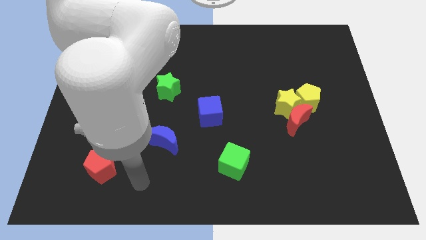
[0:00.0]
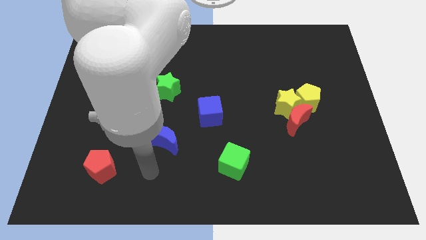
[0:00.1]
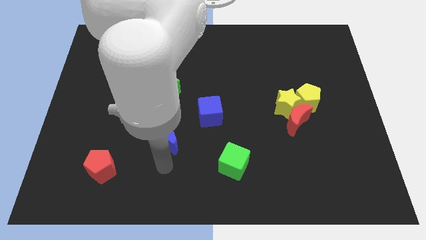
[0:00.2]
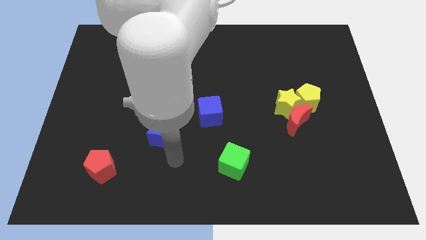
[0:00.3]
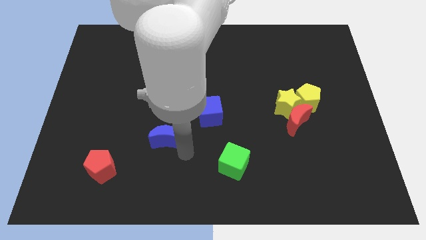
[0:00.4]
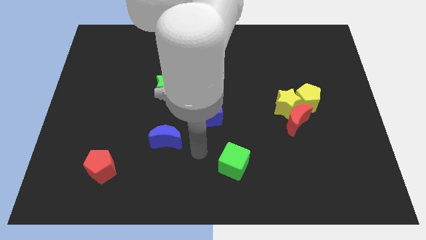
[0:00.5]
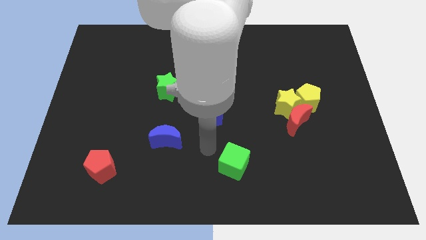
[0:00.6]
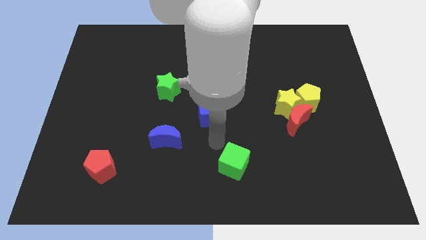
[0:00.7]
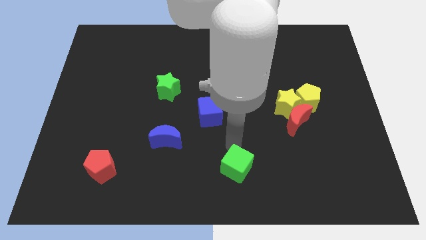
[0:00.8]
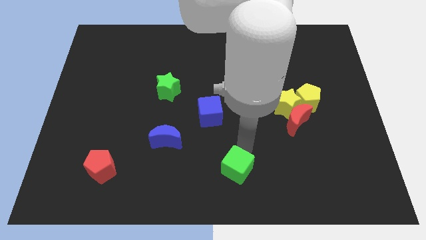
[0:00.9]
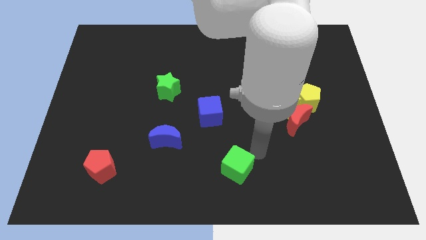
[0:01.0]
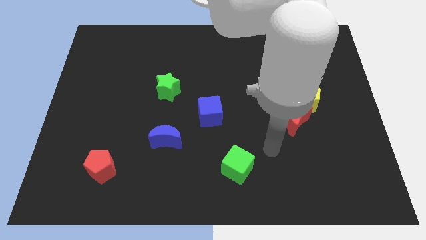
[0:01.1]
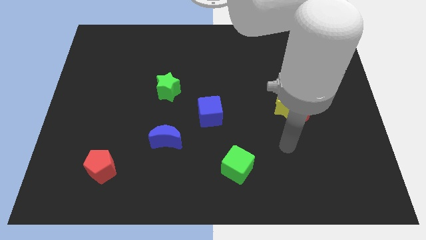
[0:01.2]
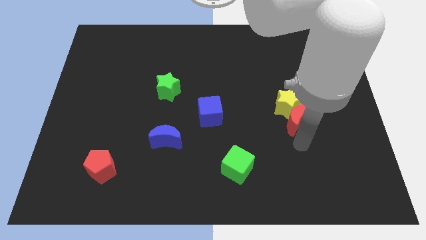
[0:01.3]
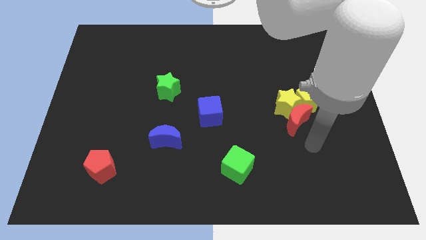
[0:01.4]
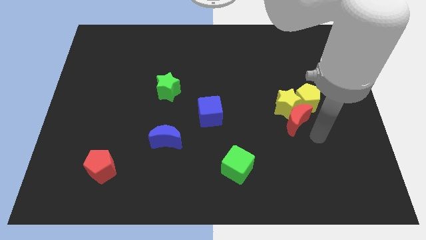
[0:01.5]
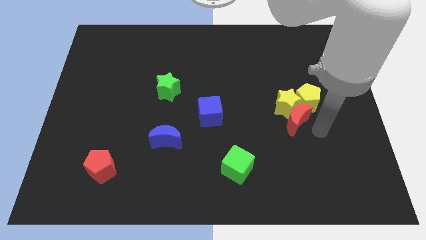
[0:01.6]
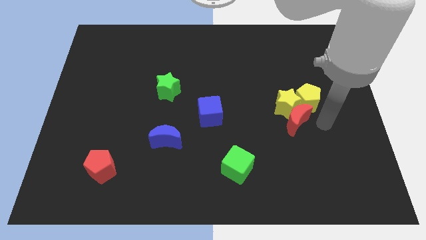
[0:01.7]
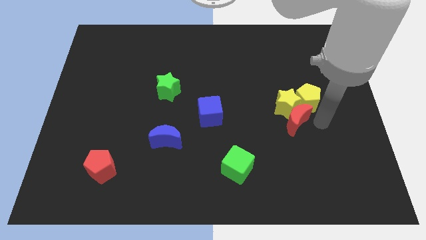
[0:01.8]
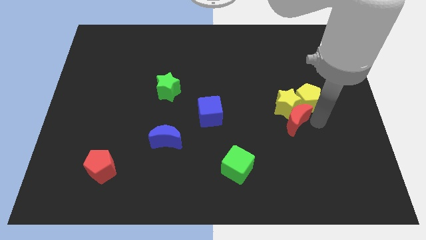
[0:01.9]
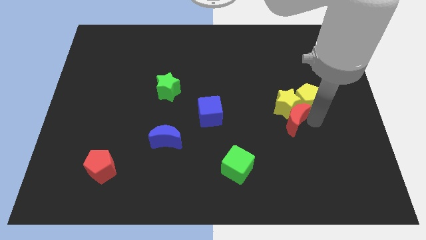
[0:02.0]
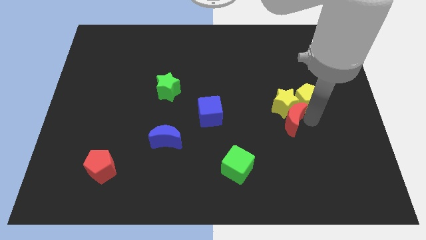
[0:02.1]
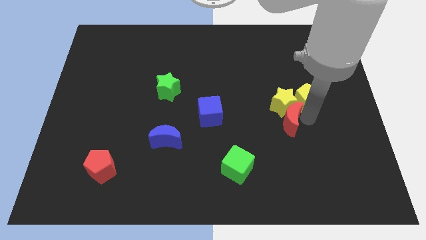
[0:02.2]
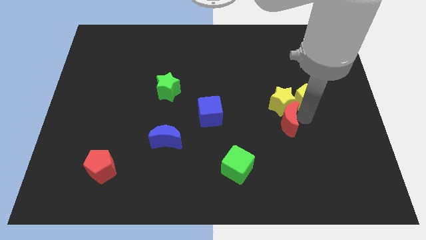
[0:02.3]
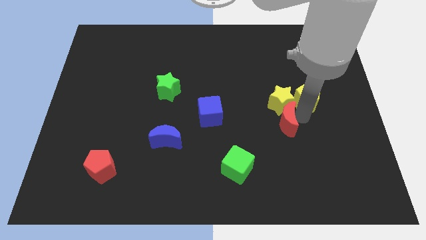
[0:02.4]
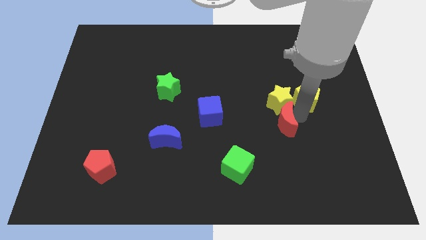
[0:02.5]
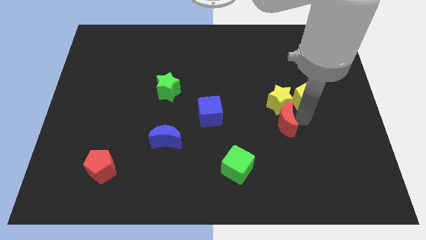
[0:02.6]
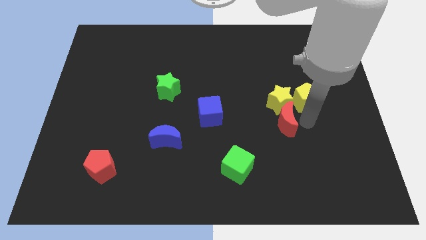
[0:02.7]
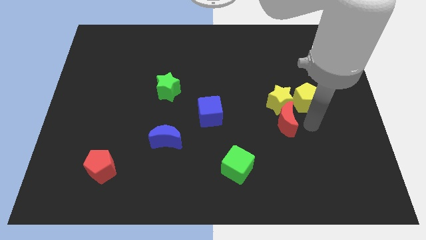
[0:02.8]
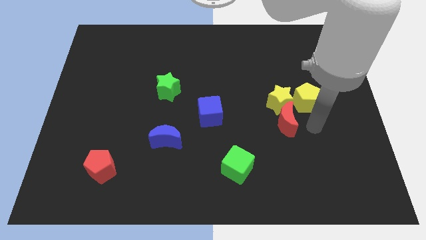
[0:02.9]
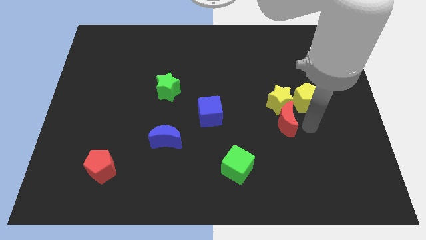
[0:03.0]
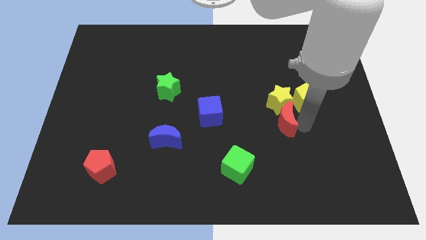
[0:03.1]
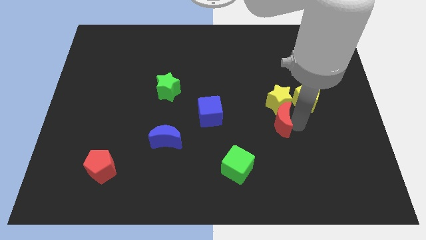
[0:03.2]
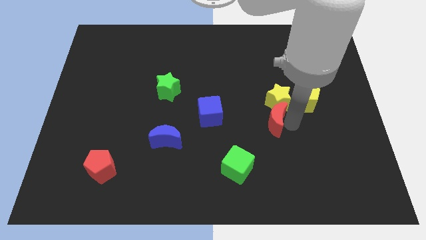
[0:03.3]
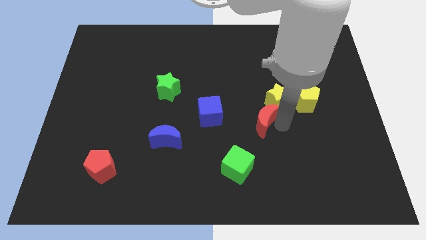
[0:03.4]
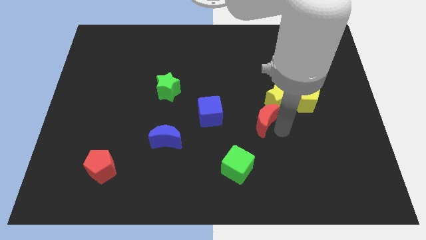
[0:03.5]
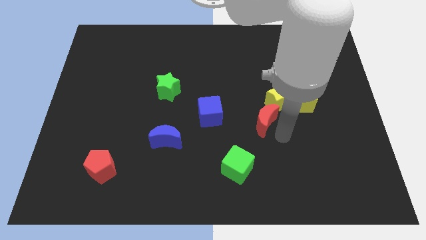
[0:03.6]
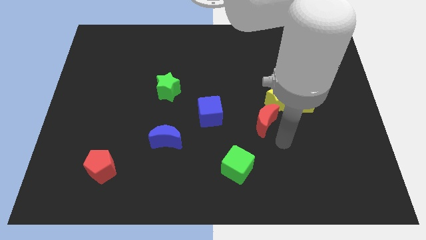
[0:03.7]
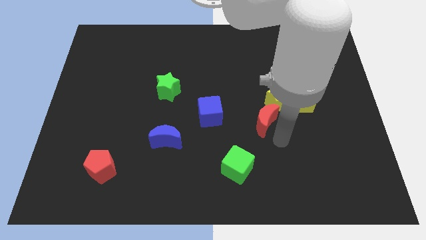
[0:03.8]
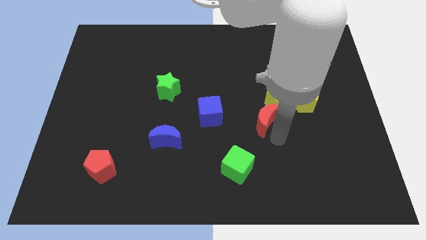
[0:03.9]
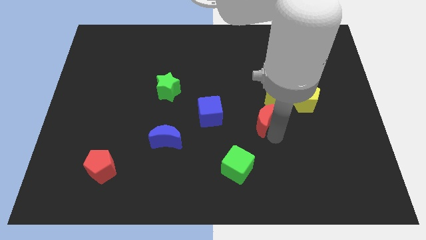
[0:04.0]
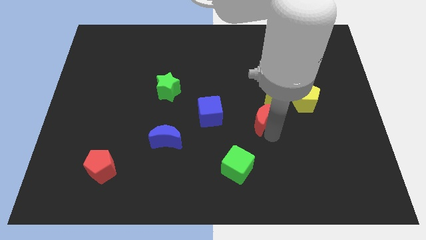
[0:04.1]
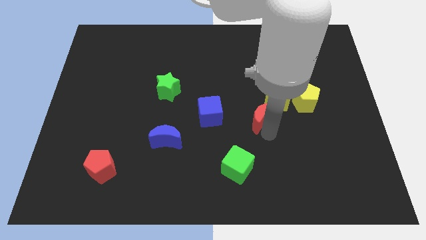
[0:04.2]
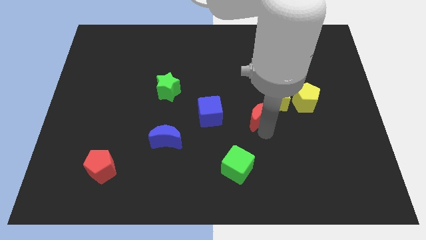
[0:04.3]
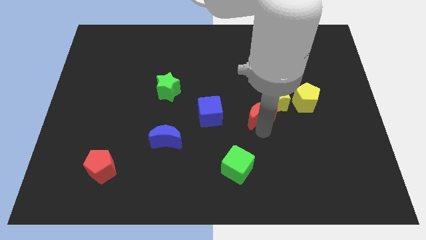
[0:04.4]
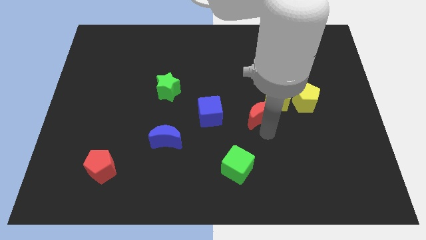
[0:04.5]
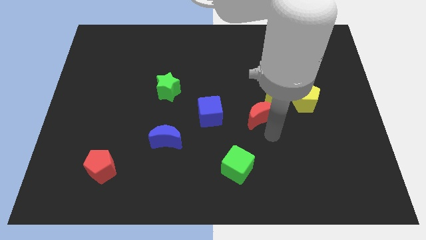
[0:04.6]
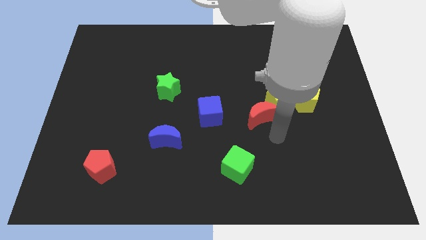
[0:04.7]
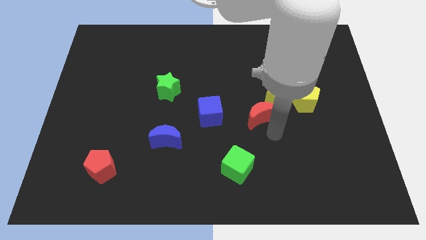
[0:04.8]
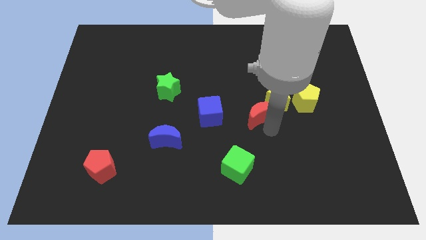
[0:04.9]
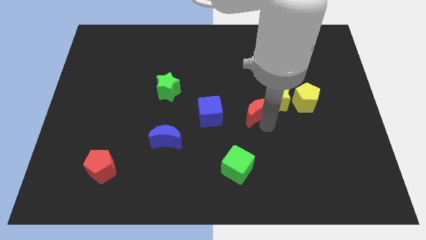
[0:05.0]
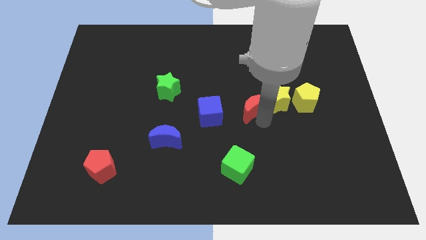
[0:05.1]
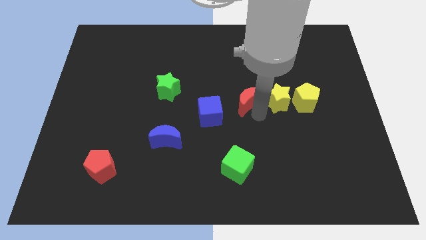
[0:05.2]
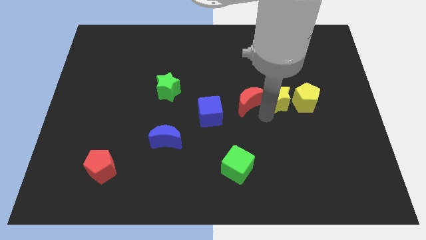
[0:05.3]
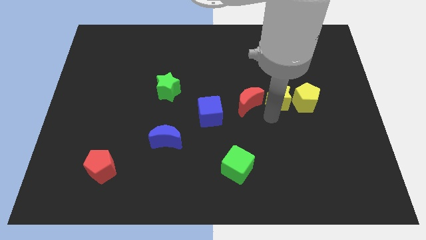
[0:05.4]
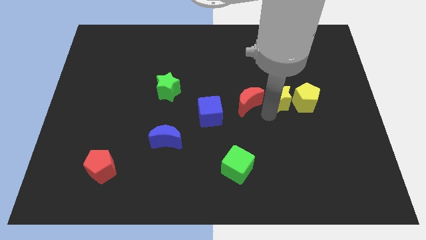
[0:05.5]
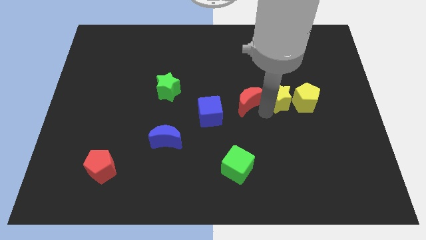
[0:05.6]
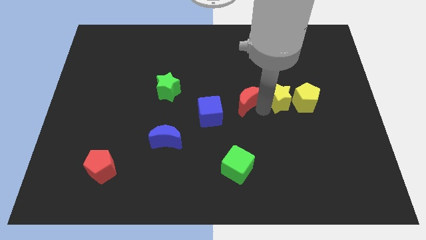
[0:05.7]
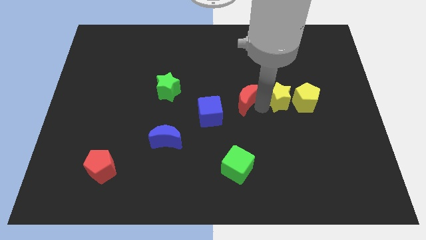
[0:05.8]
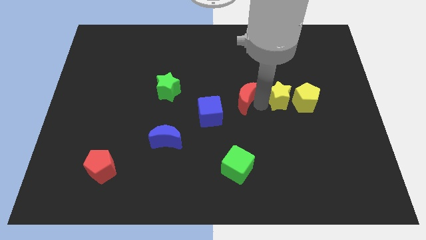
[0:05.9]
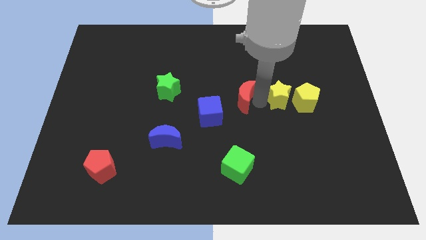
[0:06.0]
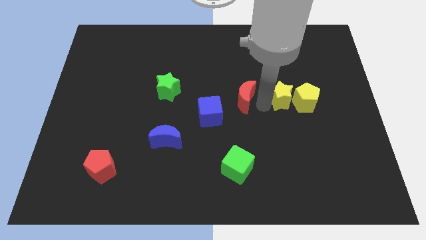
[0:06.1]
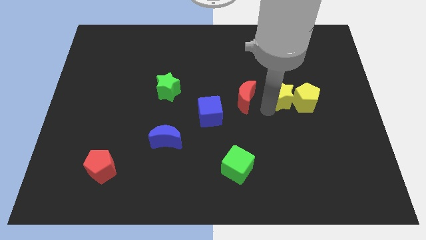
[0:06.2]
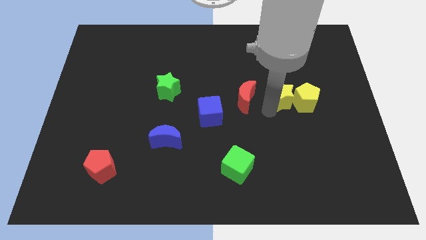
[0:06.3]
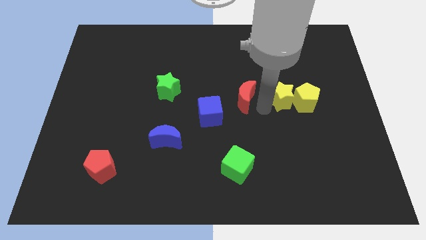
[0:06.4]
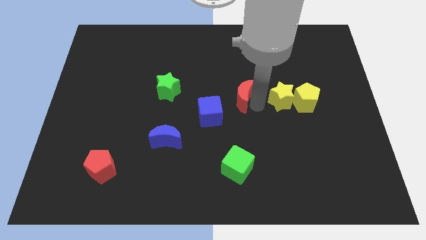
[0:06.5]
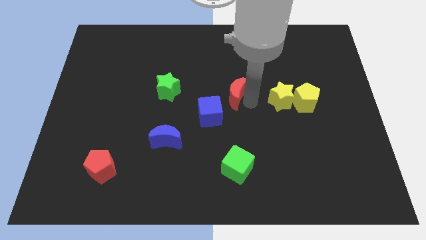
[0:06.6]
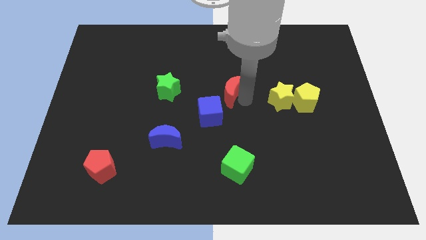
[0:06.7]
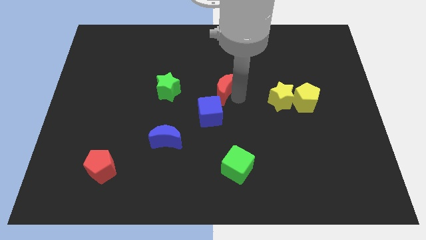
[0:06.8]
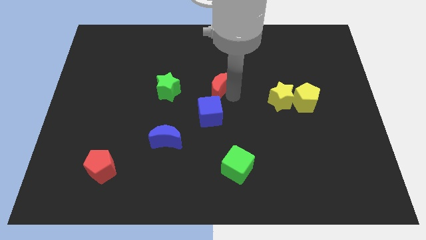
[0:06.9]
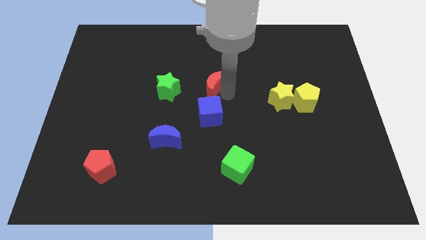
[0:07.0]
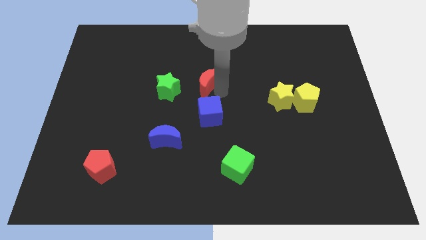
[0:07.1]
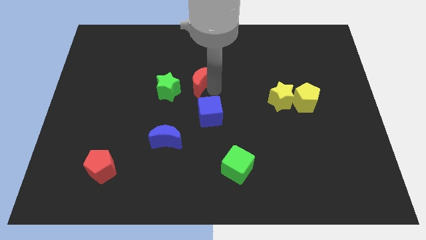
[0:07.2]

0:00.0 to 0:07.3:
push the red moon diagonally up and to the right of the green star
